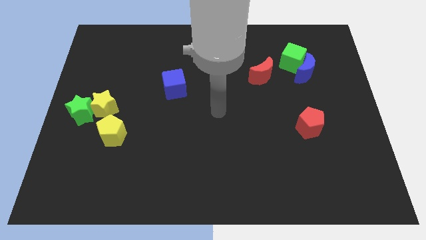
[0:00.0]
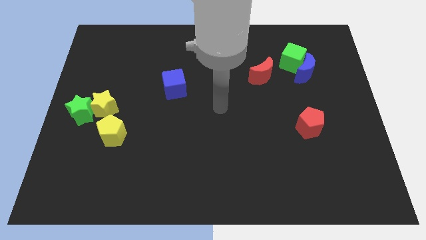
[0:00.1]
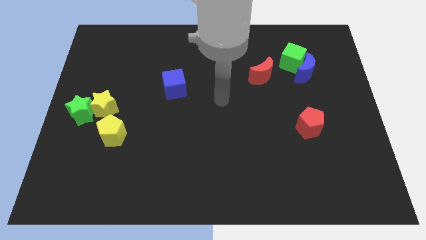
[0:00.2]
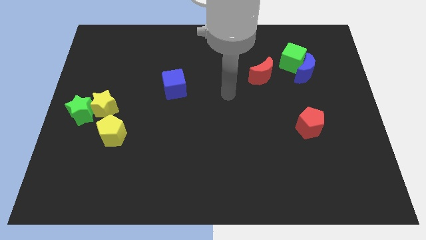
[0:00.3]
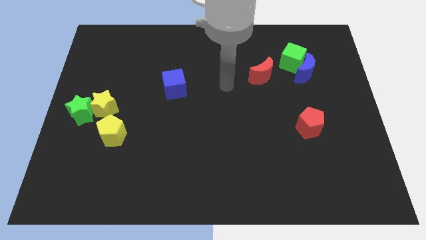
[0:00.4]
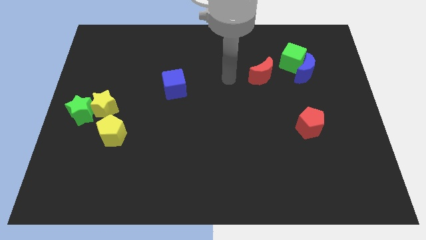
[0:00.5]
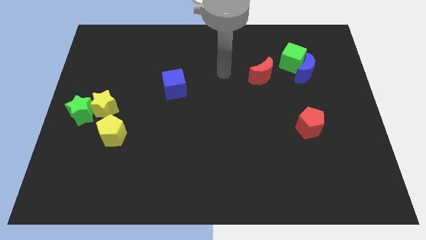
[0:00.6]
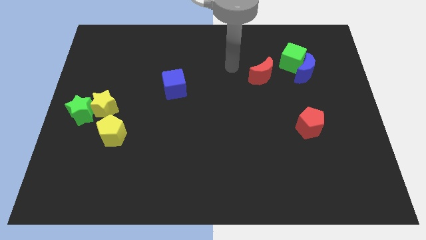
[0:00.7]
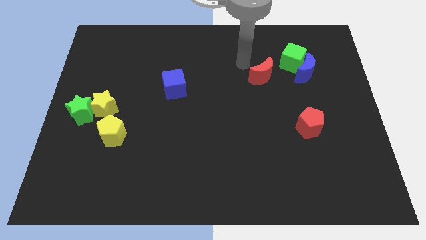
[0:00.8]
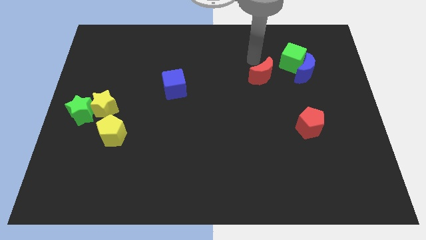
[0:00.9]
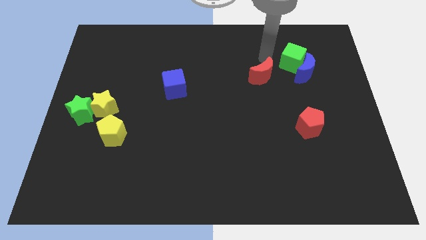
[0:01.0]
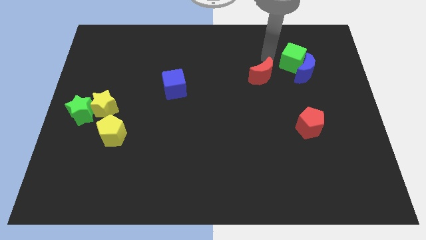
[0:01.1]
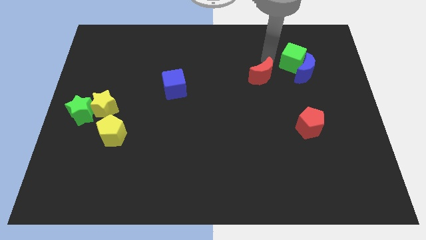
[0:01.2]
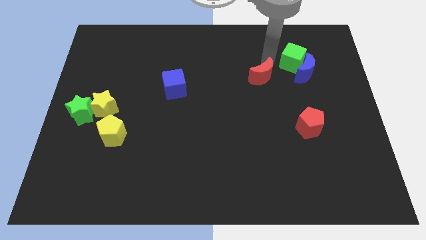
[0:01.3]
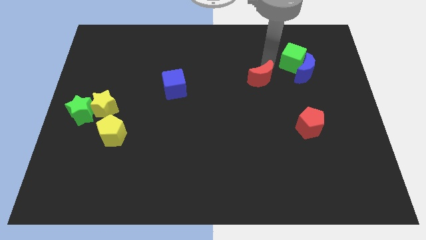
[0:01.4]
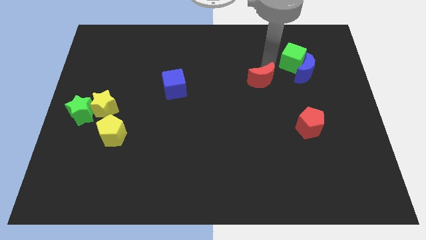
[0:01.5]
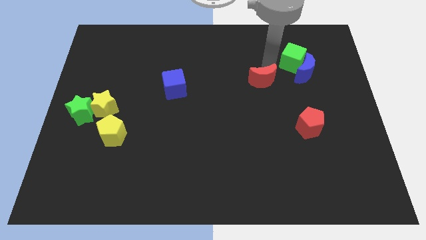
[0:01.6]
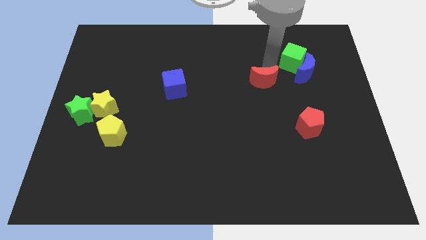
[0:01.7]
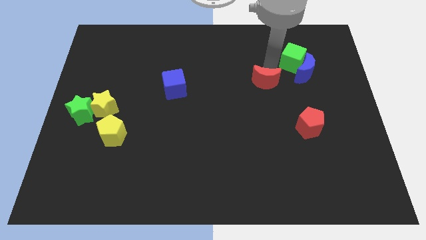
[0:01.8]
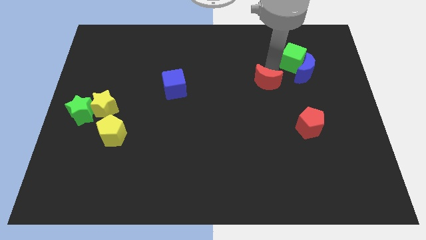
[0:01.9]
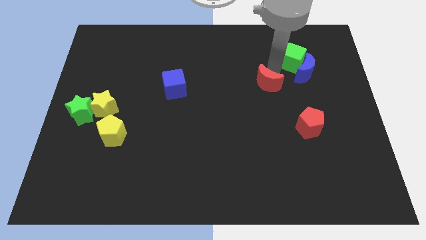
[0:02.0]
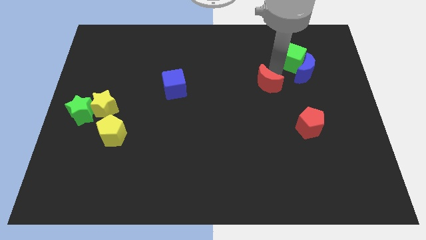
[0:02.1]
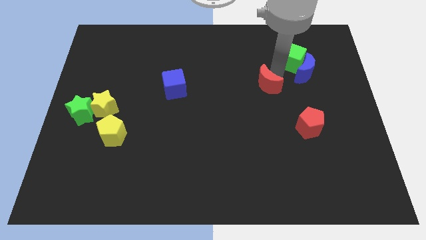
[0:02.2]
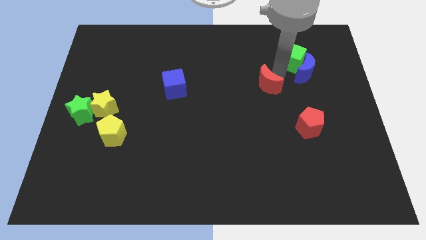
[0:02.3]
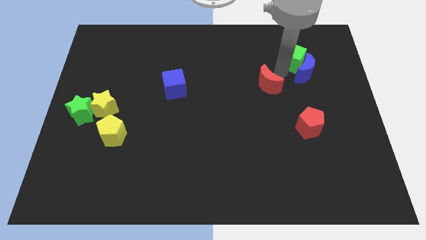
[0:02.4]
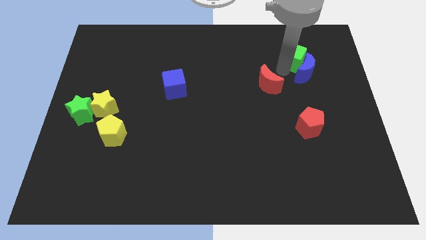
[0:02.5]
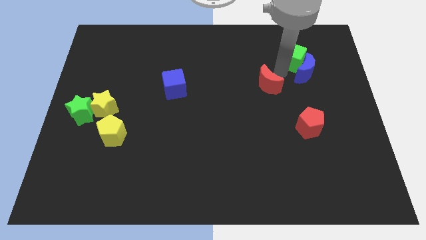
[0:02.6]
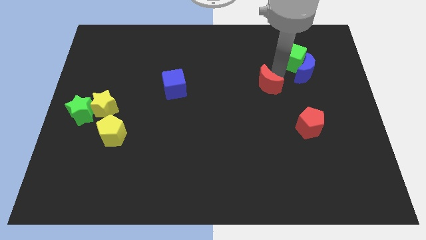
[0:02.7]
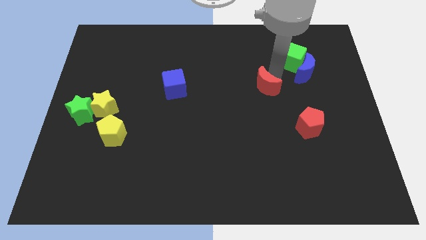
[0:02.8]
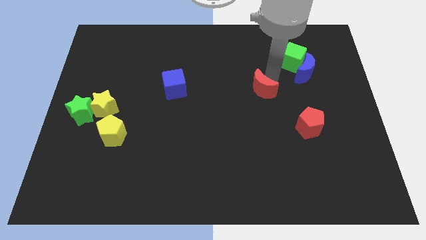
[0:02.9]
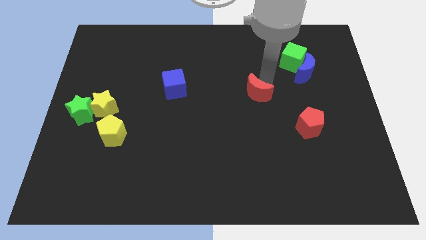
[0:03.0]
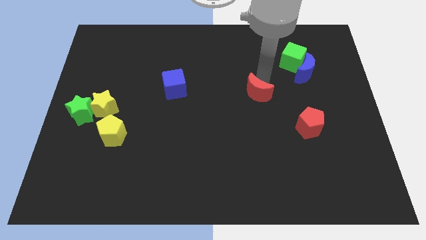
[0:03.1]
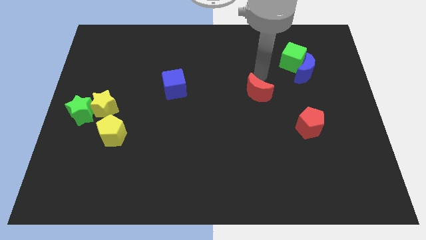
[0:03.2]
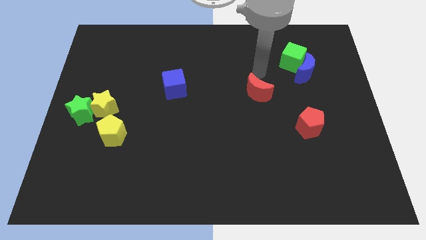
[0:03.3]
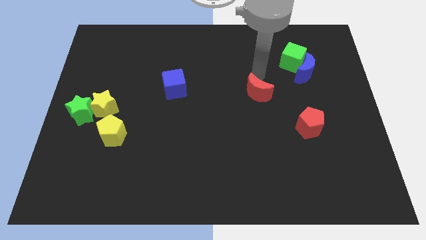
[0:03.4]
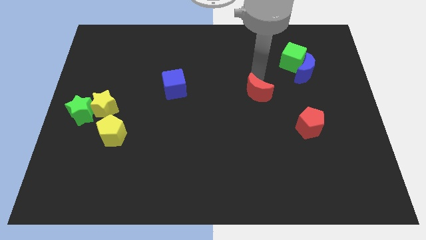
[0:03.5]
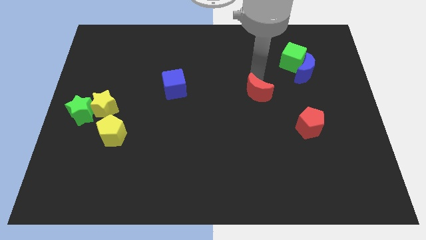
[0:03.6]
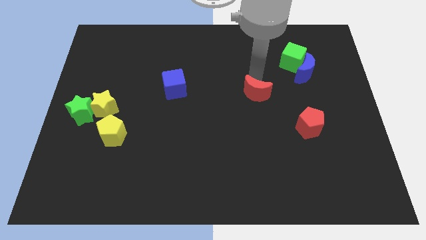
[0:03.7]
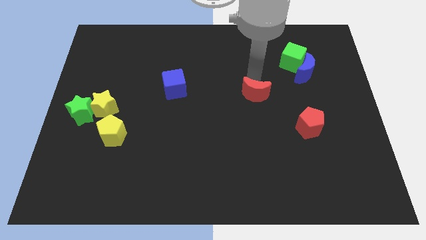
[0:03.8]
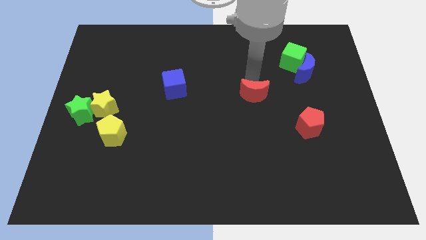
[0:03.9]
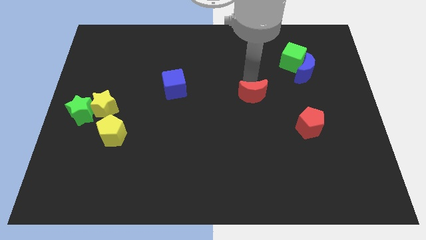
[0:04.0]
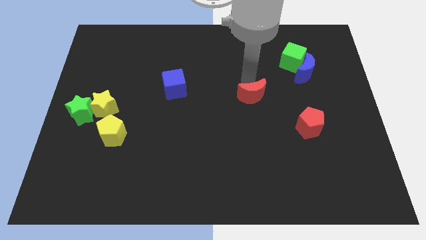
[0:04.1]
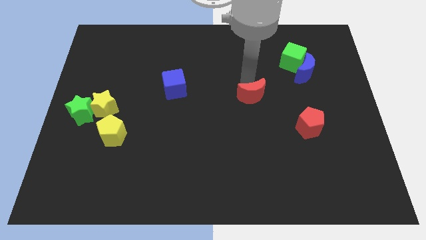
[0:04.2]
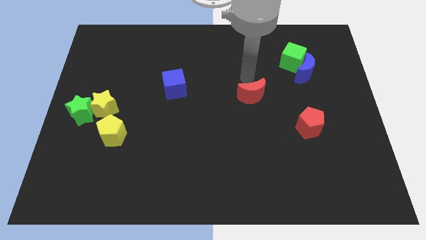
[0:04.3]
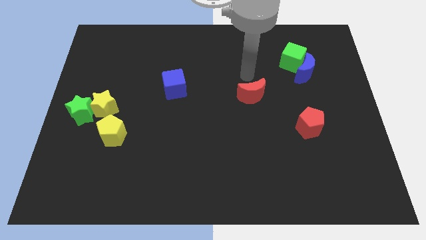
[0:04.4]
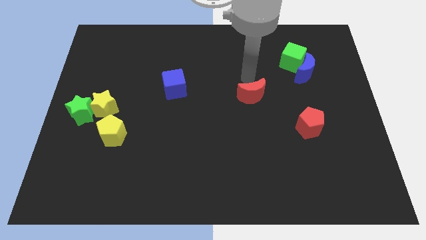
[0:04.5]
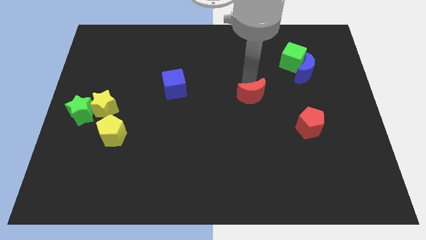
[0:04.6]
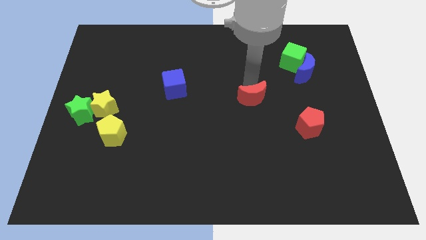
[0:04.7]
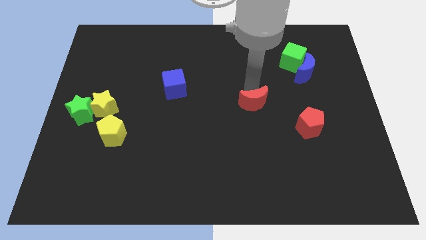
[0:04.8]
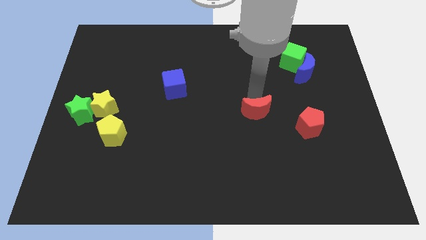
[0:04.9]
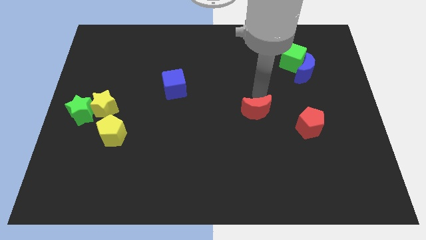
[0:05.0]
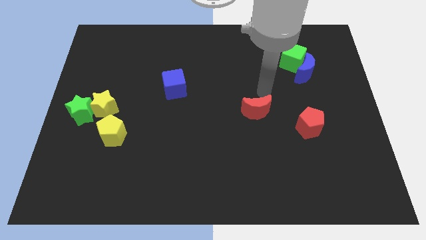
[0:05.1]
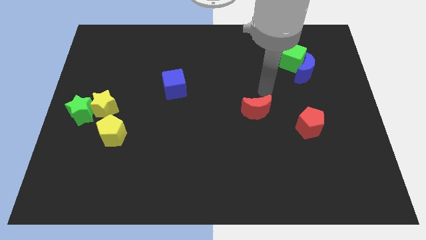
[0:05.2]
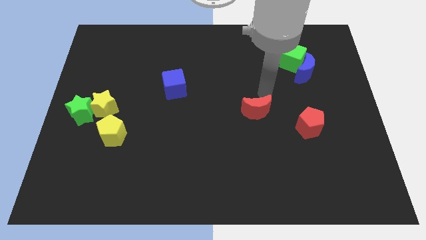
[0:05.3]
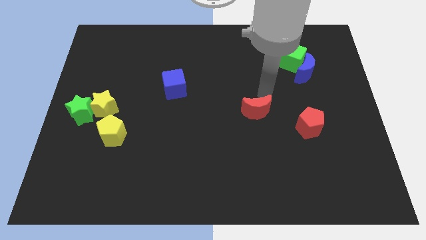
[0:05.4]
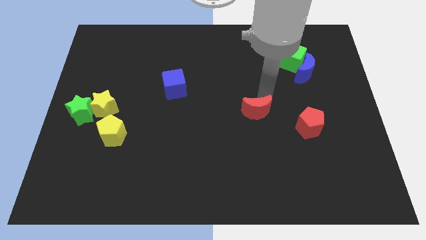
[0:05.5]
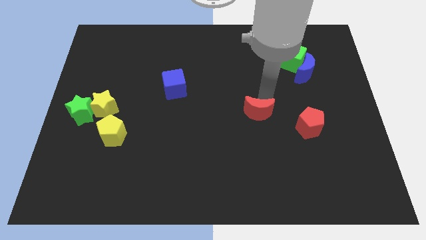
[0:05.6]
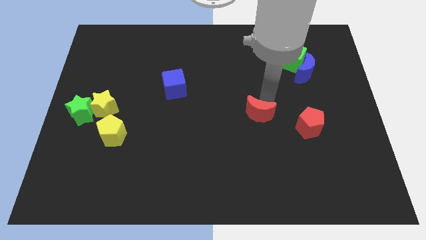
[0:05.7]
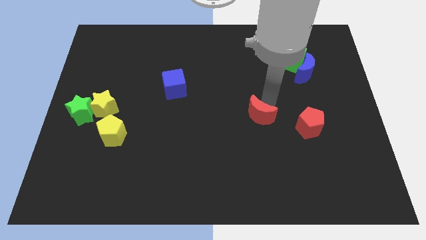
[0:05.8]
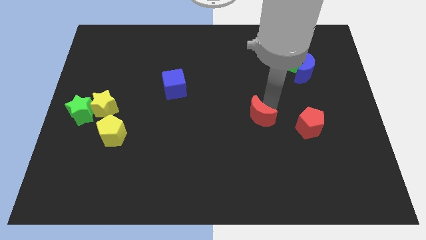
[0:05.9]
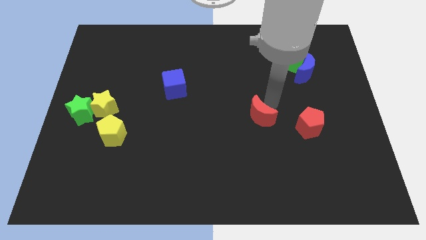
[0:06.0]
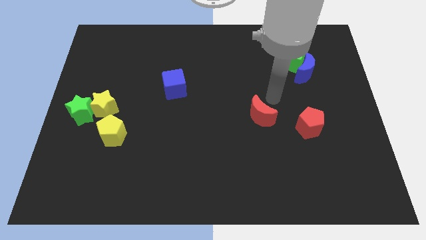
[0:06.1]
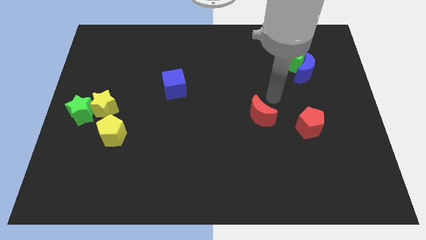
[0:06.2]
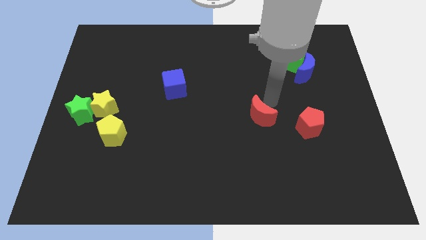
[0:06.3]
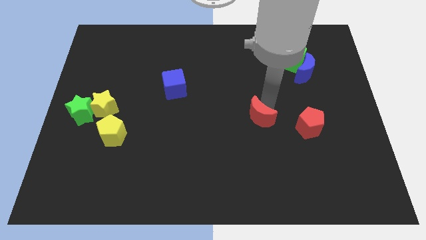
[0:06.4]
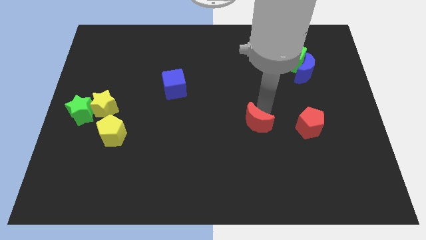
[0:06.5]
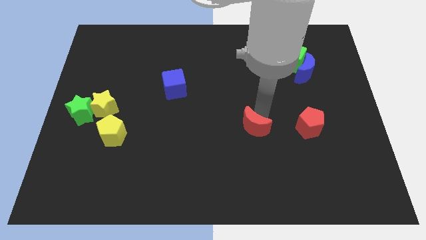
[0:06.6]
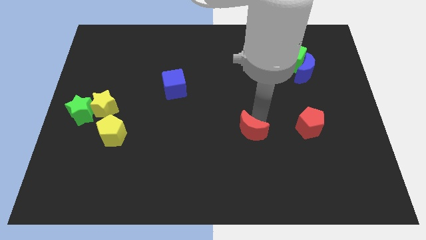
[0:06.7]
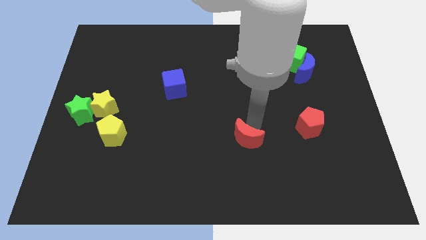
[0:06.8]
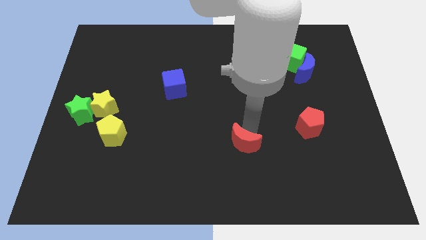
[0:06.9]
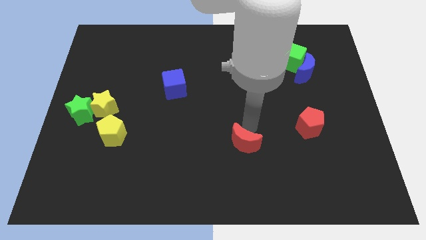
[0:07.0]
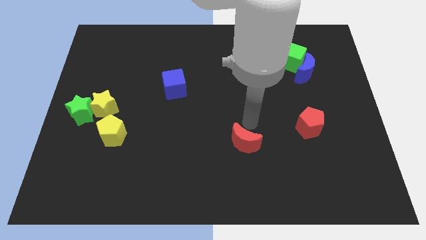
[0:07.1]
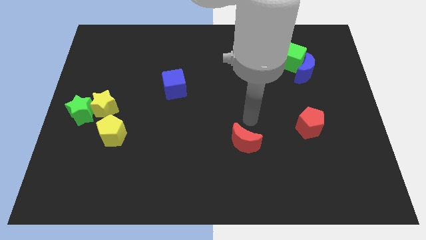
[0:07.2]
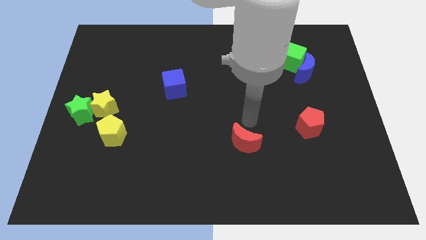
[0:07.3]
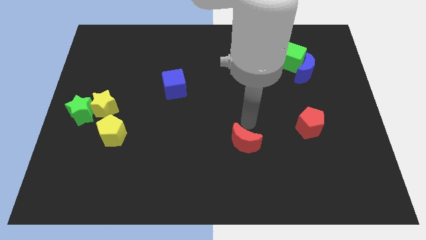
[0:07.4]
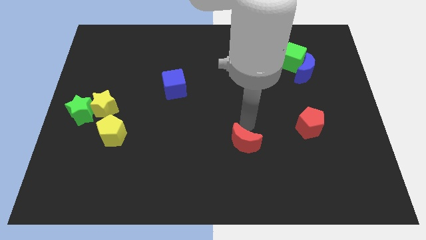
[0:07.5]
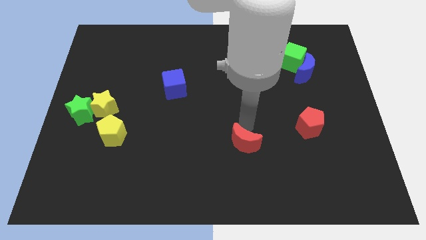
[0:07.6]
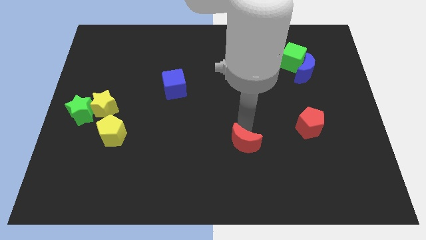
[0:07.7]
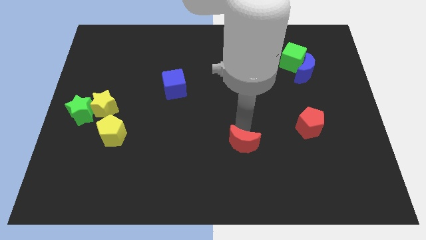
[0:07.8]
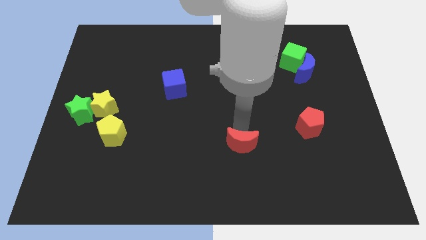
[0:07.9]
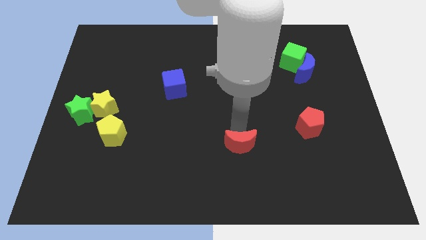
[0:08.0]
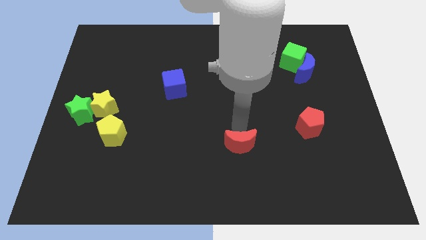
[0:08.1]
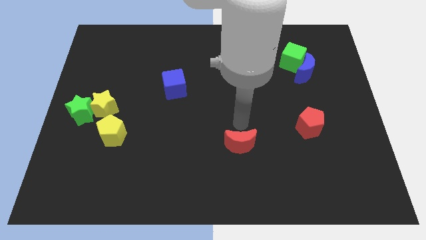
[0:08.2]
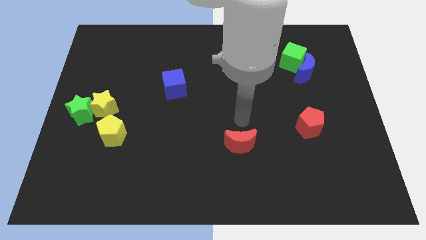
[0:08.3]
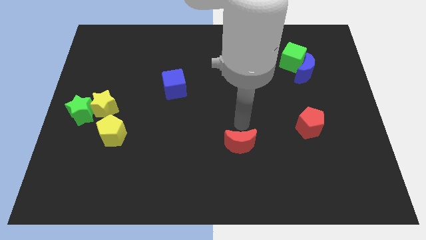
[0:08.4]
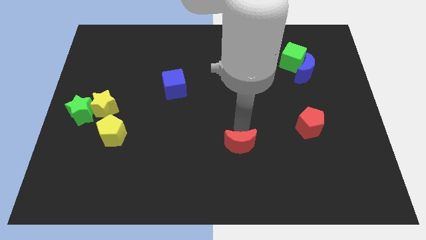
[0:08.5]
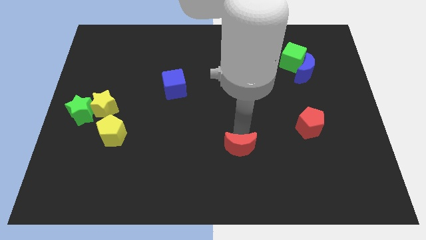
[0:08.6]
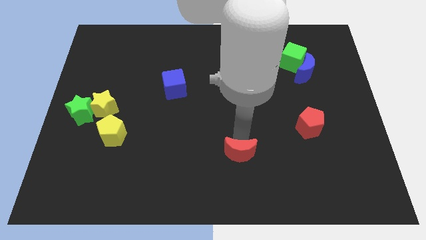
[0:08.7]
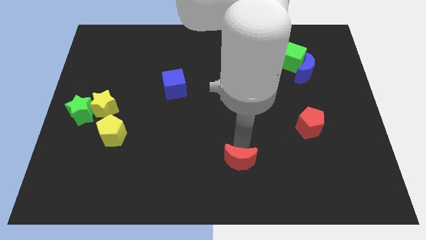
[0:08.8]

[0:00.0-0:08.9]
move the red moon to the bottom side
